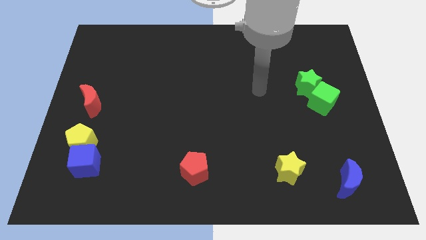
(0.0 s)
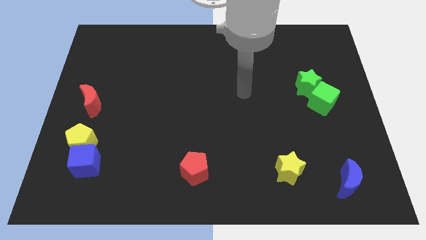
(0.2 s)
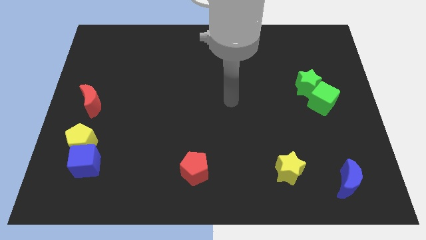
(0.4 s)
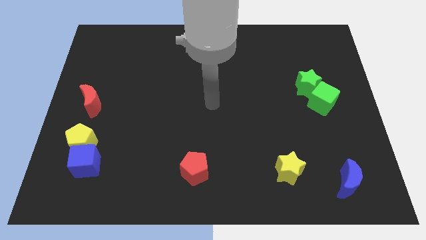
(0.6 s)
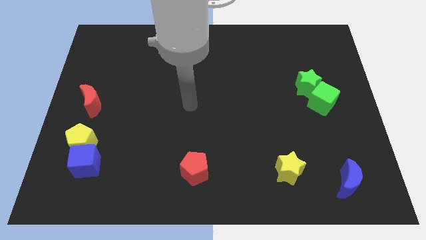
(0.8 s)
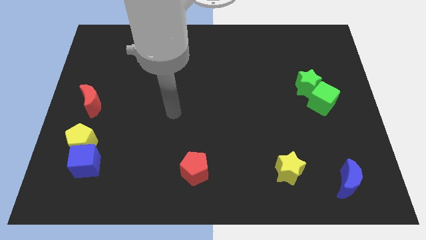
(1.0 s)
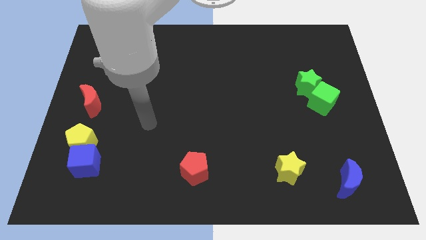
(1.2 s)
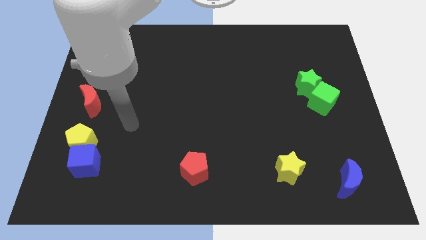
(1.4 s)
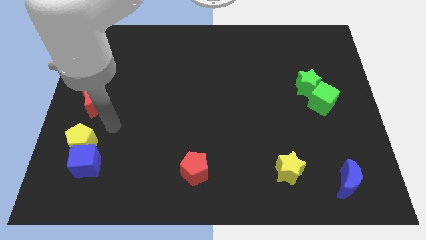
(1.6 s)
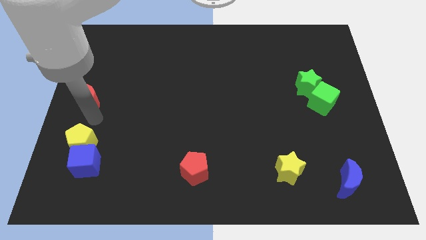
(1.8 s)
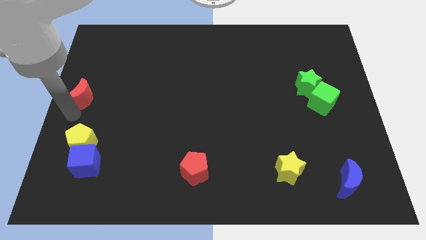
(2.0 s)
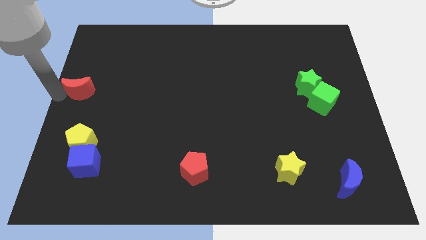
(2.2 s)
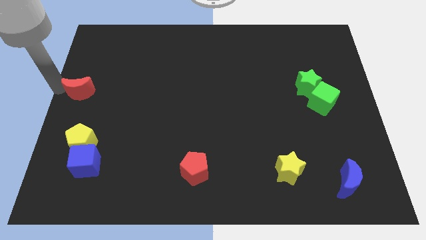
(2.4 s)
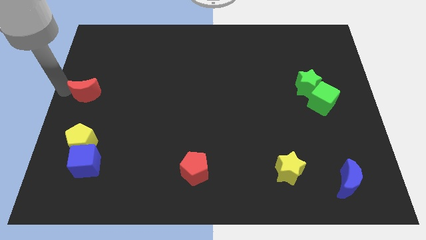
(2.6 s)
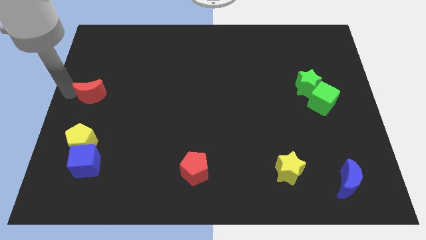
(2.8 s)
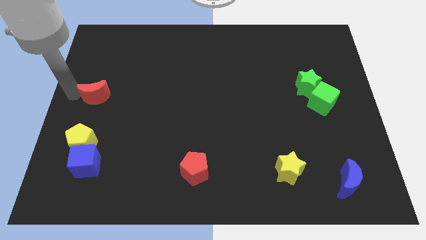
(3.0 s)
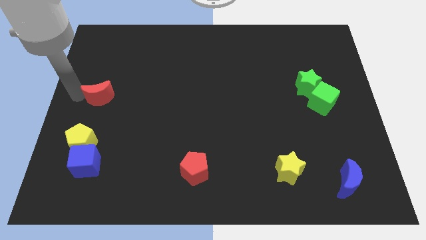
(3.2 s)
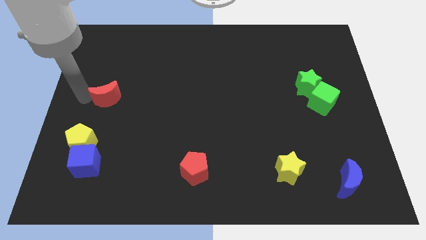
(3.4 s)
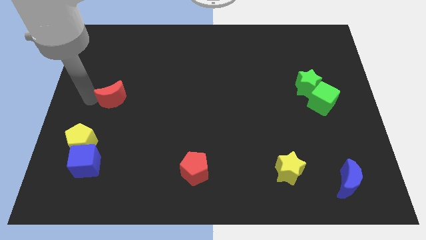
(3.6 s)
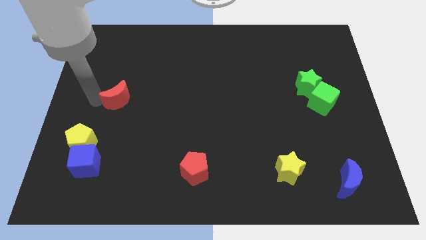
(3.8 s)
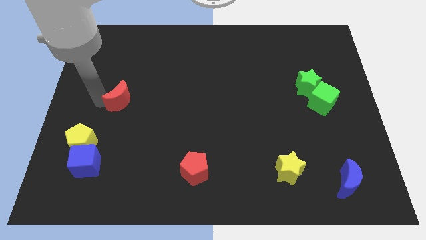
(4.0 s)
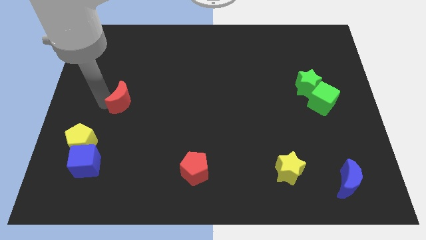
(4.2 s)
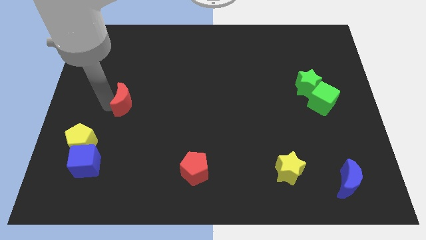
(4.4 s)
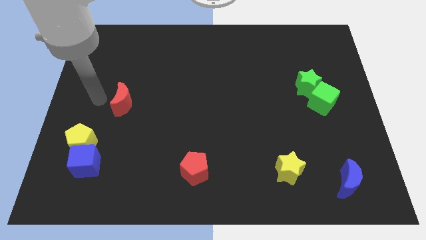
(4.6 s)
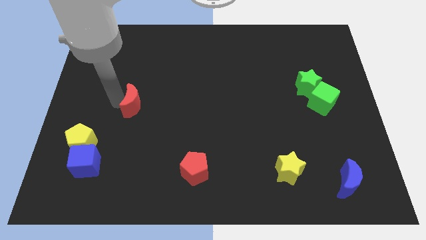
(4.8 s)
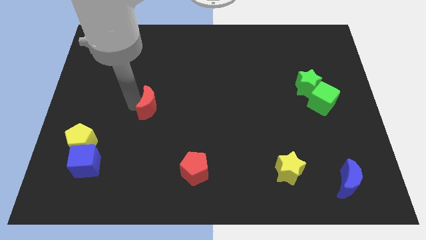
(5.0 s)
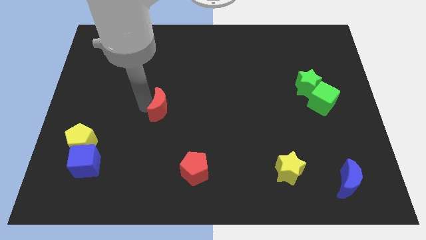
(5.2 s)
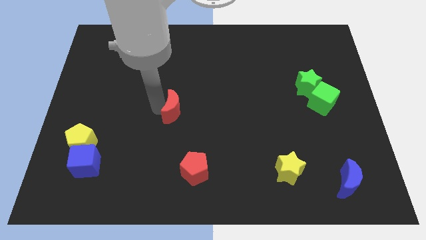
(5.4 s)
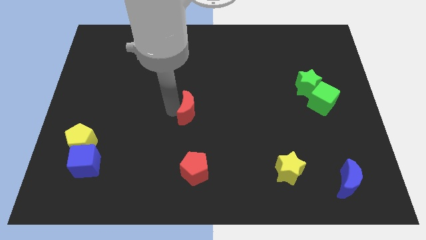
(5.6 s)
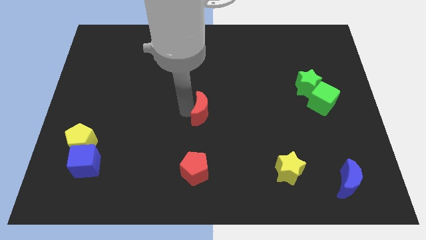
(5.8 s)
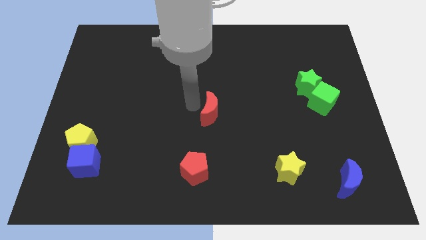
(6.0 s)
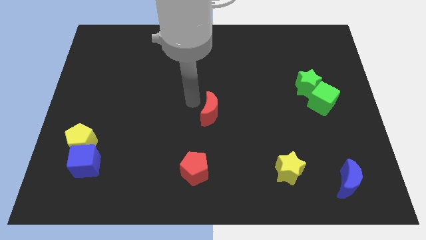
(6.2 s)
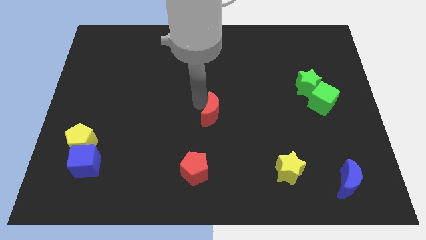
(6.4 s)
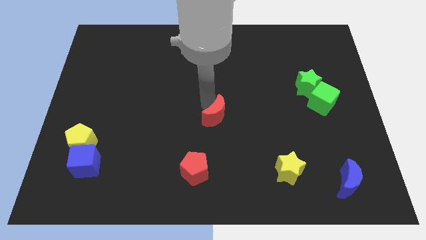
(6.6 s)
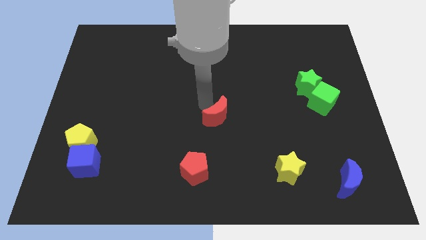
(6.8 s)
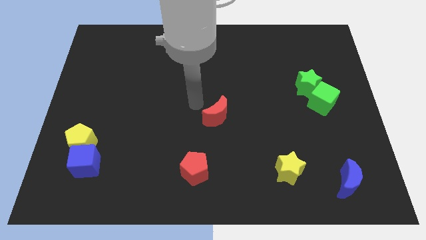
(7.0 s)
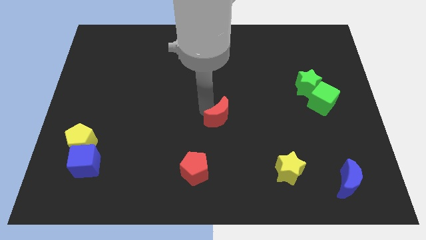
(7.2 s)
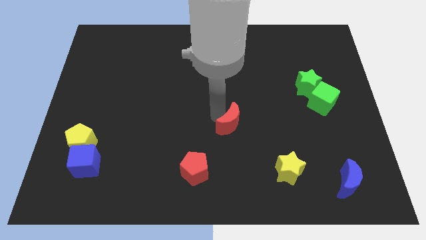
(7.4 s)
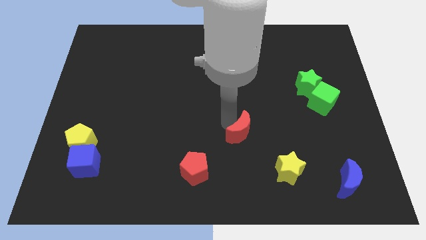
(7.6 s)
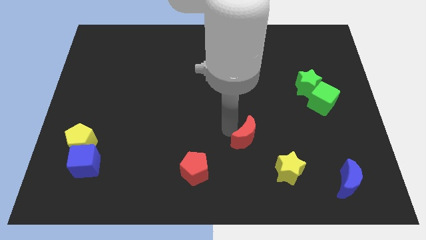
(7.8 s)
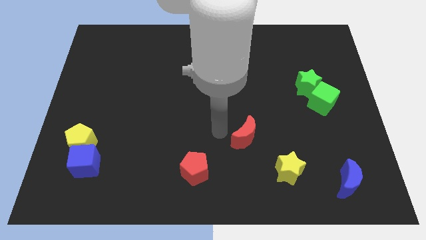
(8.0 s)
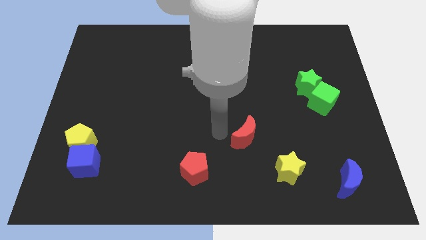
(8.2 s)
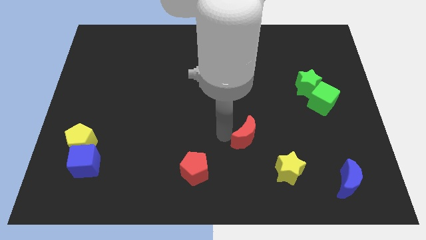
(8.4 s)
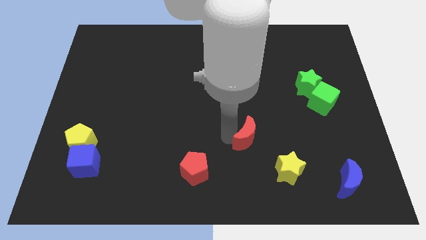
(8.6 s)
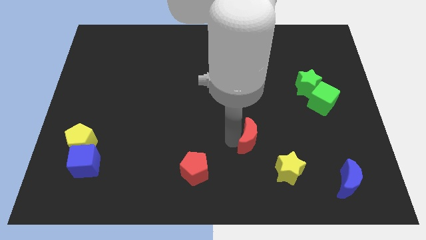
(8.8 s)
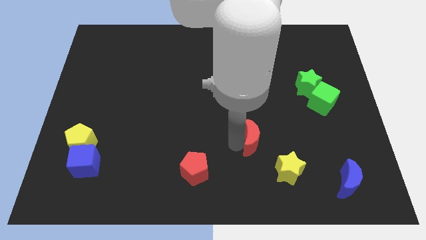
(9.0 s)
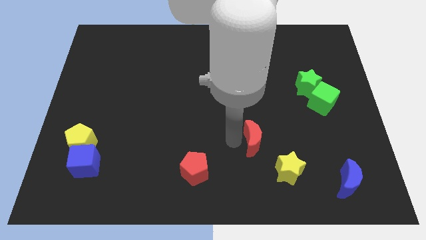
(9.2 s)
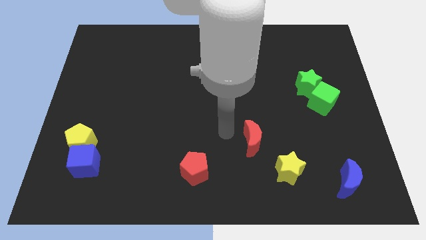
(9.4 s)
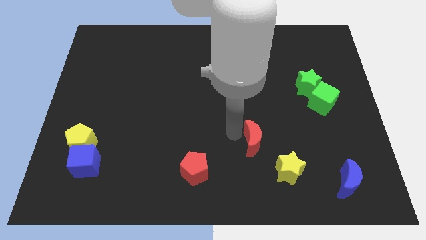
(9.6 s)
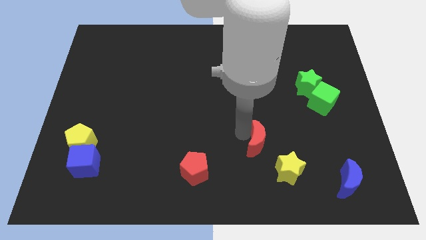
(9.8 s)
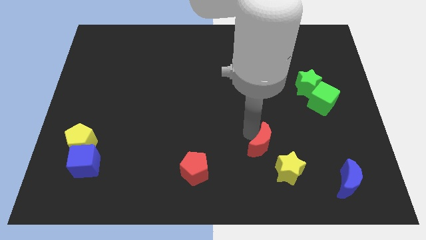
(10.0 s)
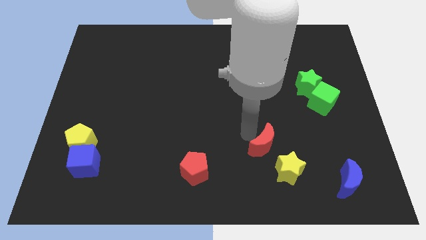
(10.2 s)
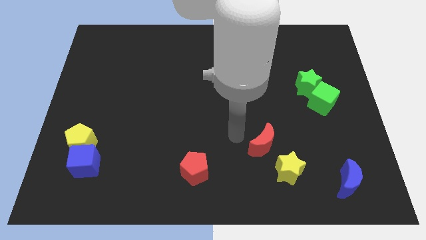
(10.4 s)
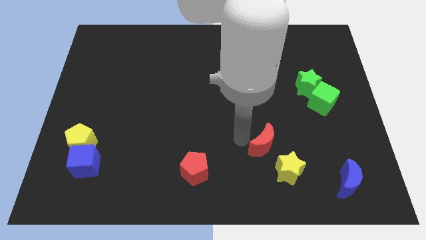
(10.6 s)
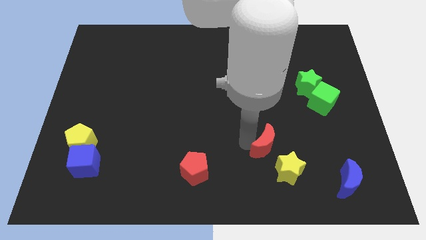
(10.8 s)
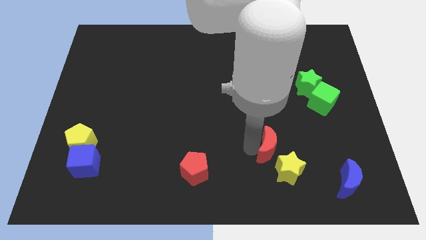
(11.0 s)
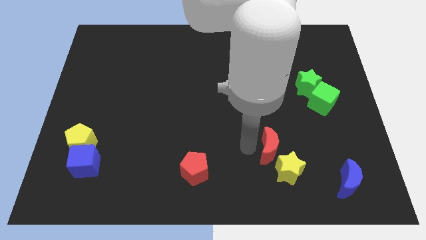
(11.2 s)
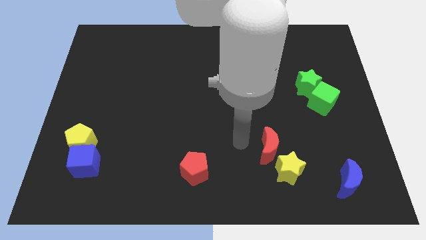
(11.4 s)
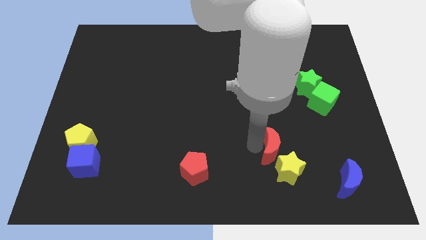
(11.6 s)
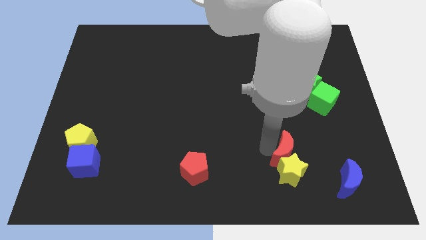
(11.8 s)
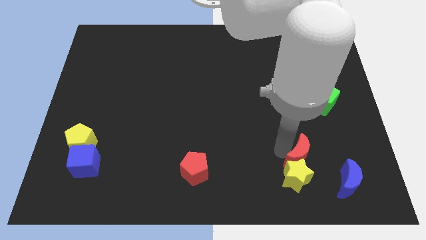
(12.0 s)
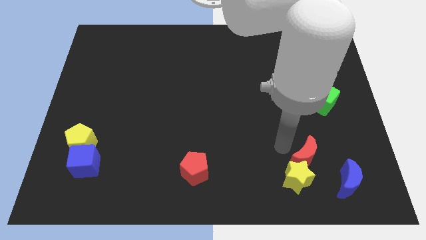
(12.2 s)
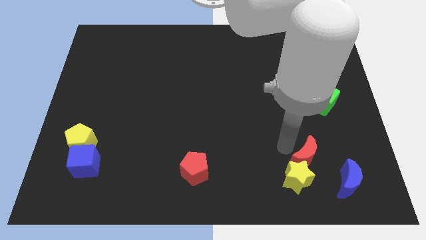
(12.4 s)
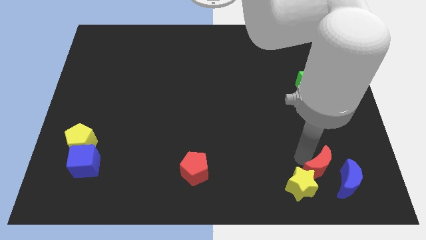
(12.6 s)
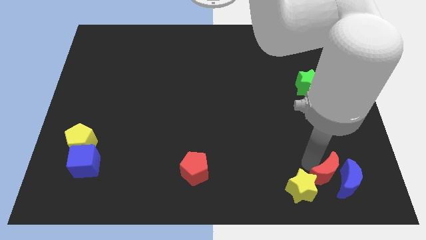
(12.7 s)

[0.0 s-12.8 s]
slide the red moon close to the blue moon

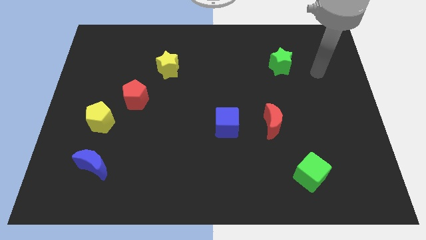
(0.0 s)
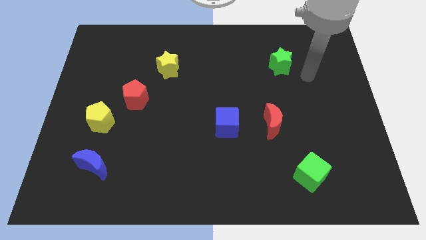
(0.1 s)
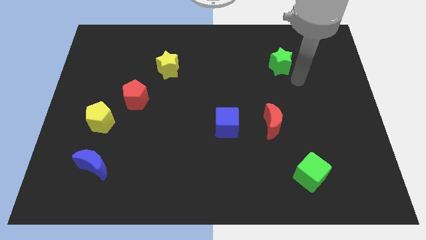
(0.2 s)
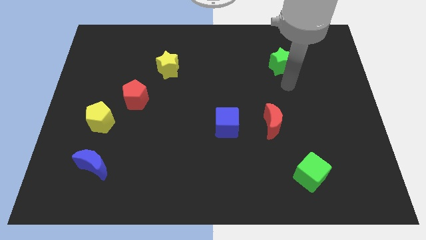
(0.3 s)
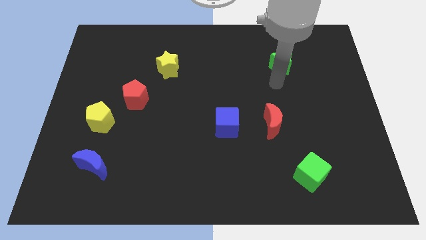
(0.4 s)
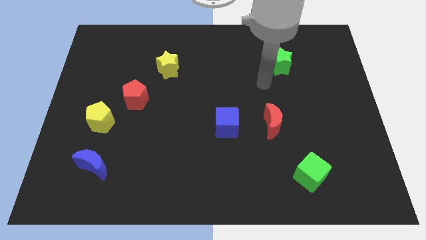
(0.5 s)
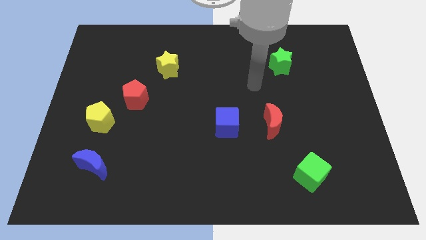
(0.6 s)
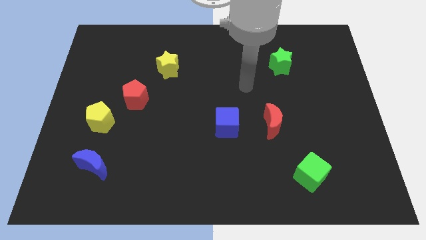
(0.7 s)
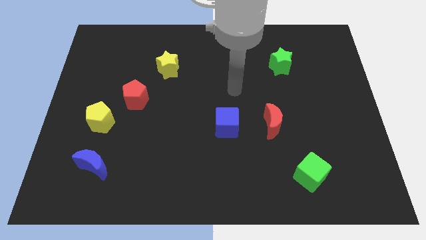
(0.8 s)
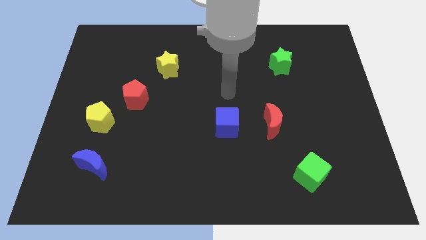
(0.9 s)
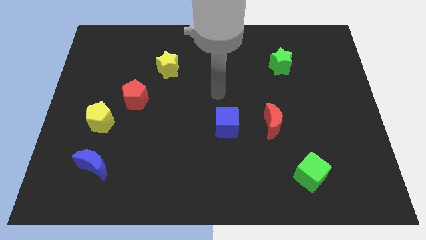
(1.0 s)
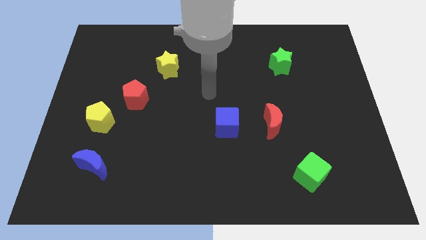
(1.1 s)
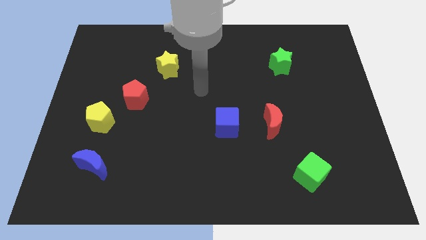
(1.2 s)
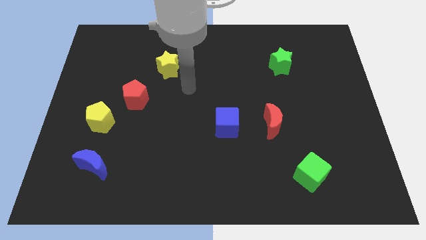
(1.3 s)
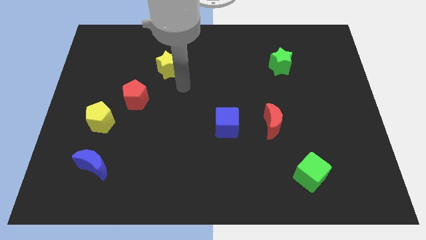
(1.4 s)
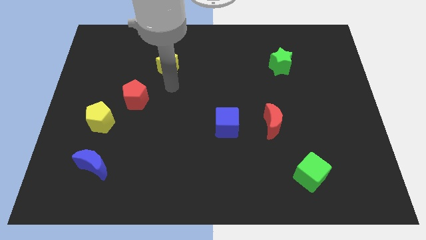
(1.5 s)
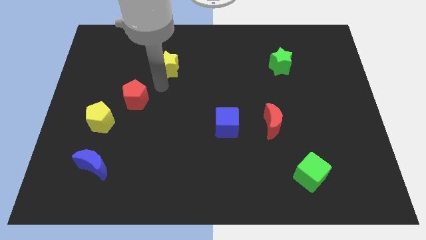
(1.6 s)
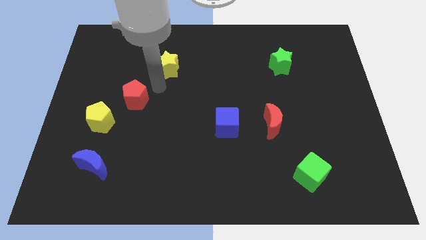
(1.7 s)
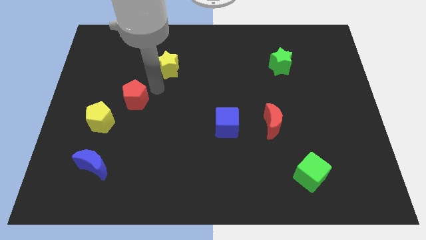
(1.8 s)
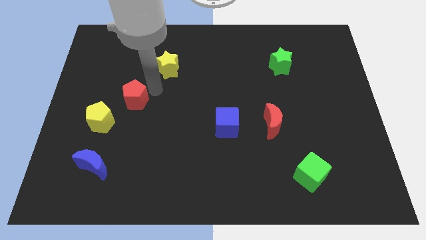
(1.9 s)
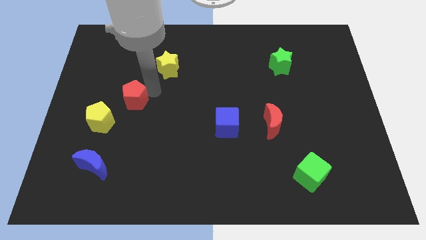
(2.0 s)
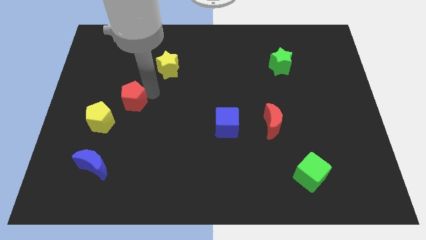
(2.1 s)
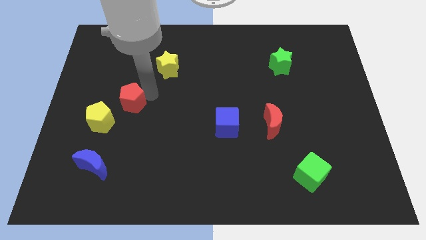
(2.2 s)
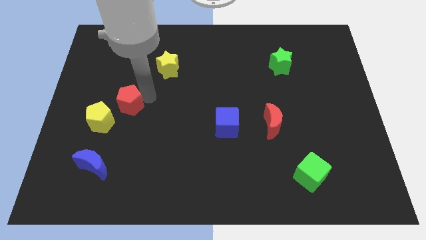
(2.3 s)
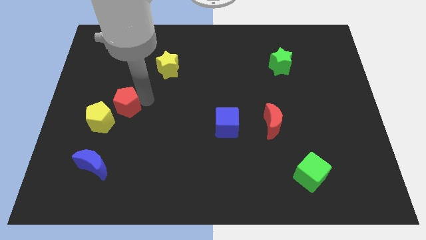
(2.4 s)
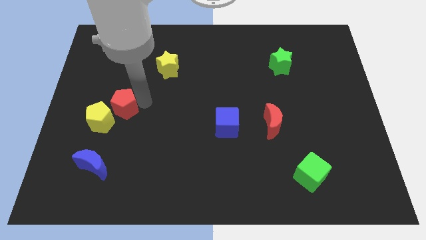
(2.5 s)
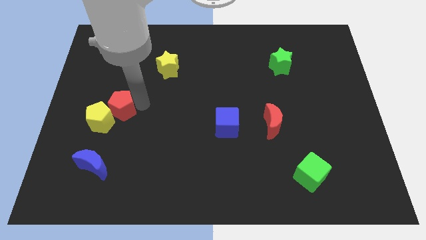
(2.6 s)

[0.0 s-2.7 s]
put the red pentagon next to the yellow pentagon
